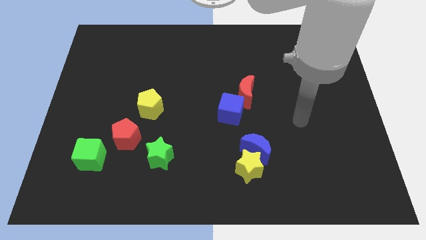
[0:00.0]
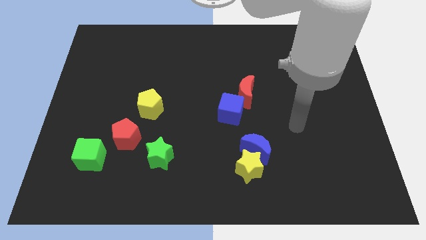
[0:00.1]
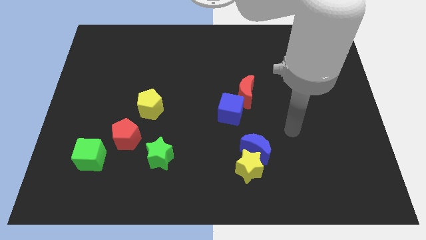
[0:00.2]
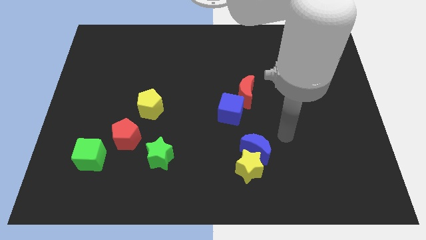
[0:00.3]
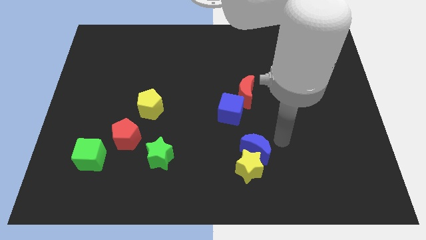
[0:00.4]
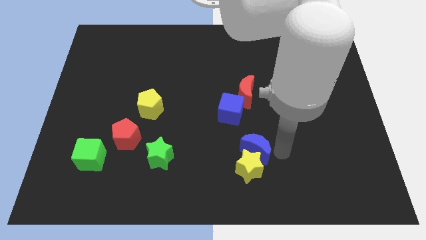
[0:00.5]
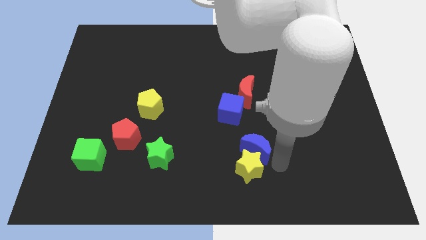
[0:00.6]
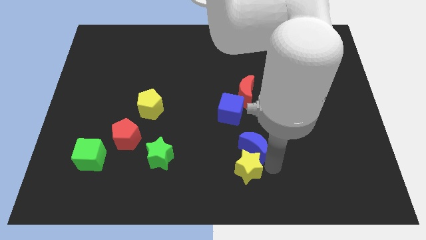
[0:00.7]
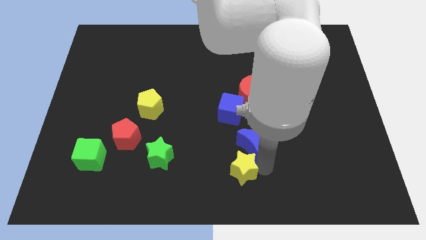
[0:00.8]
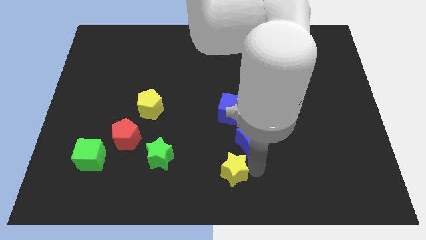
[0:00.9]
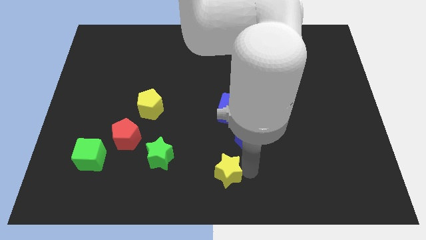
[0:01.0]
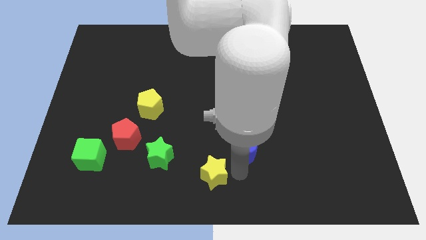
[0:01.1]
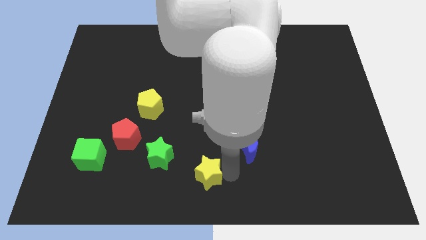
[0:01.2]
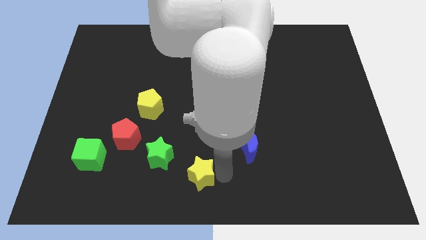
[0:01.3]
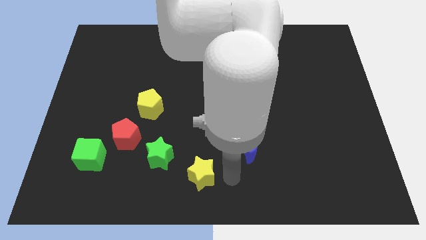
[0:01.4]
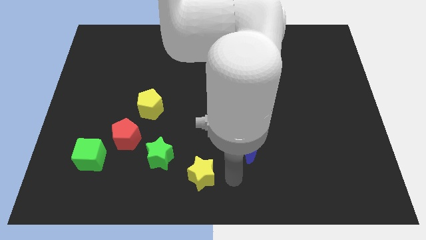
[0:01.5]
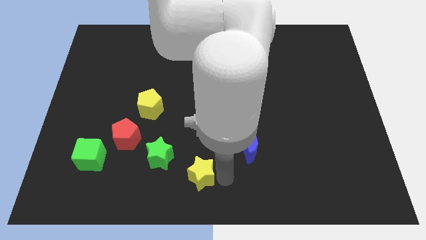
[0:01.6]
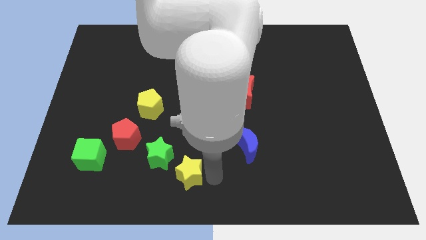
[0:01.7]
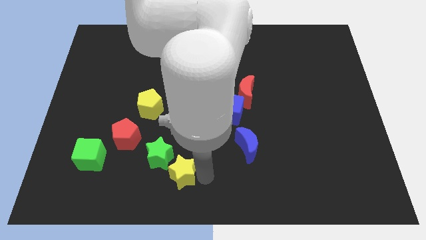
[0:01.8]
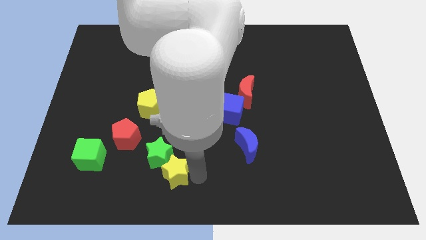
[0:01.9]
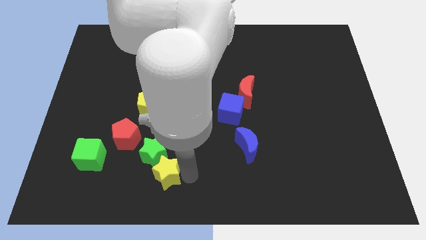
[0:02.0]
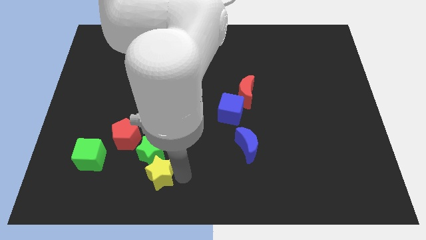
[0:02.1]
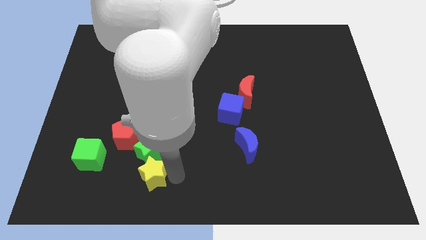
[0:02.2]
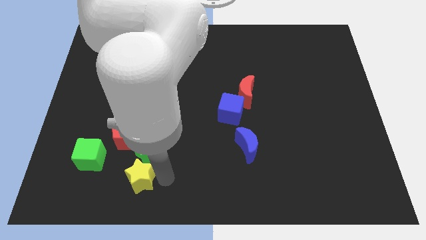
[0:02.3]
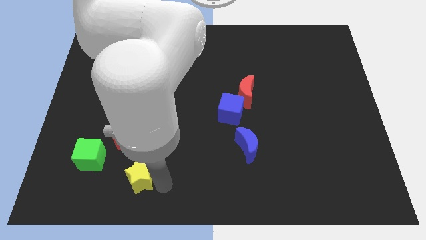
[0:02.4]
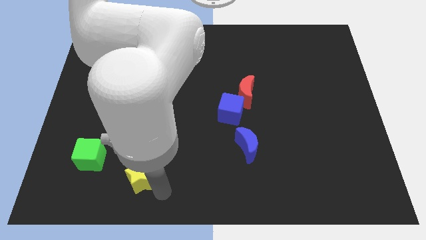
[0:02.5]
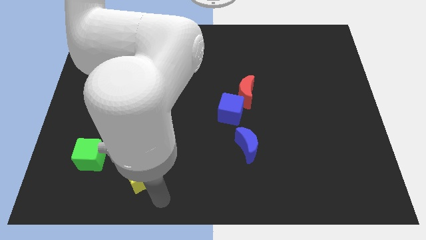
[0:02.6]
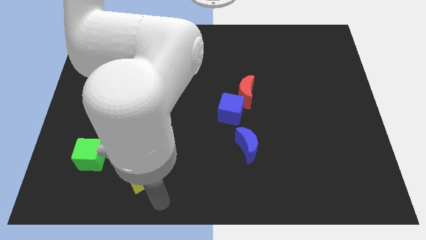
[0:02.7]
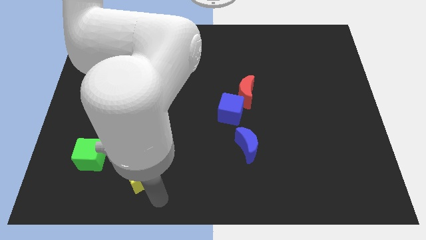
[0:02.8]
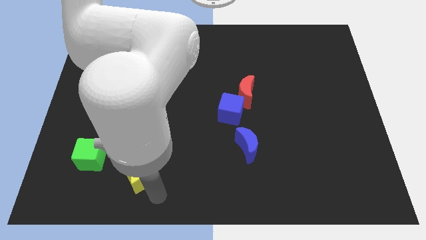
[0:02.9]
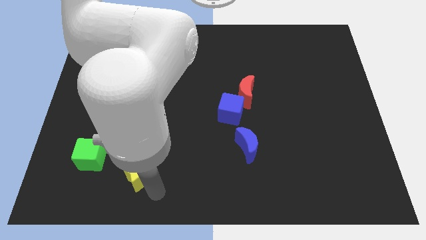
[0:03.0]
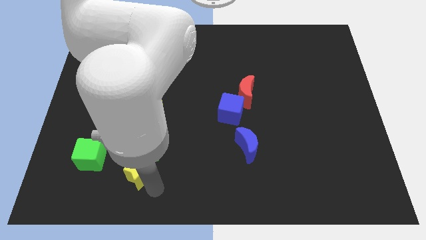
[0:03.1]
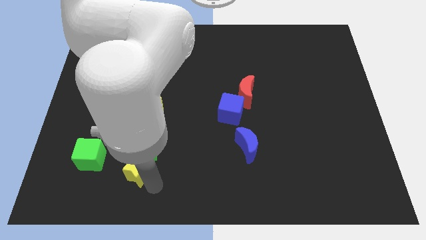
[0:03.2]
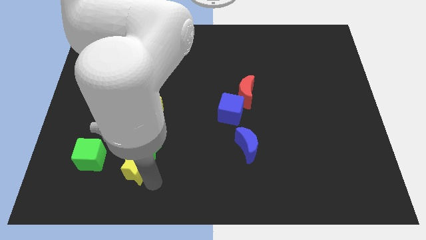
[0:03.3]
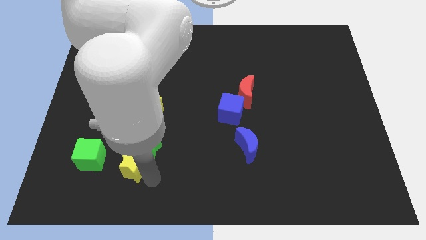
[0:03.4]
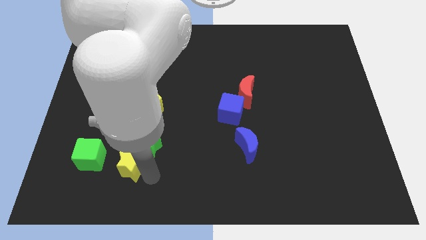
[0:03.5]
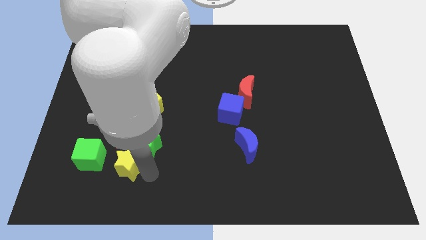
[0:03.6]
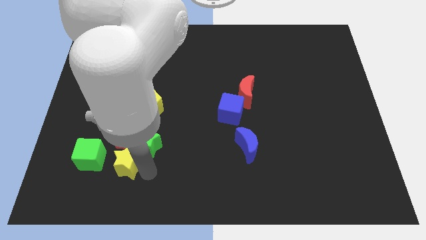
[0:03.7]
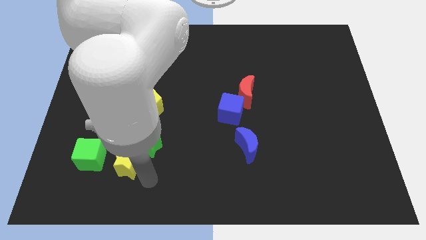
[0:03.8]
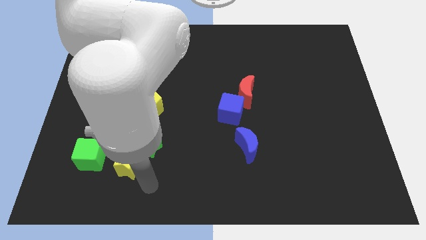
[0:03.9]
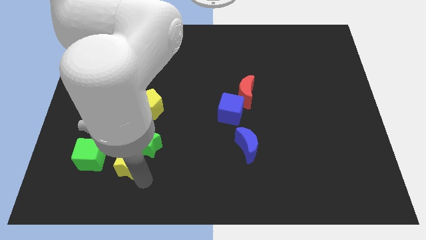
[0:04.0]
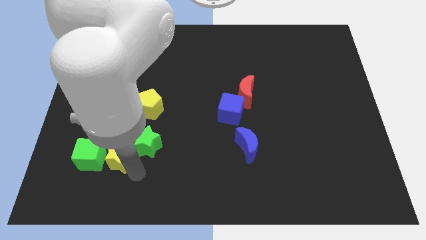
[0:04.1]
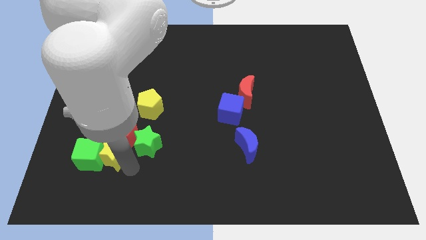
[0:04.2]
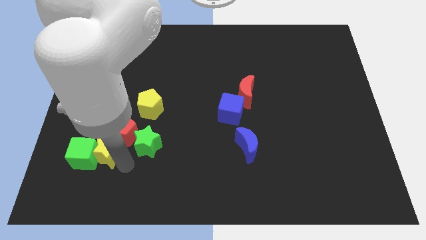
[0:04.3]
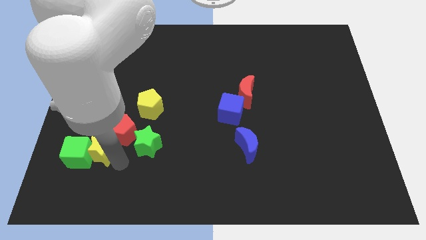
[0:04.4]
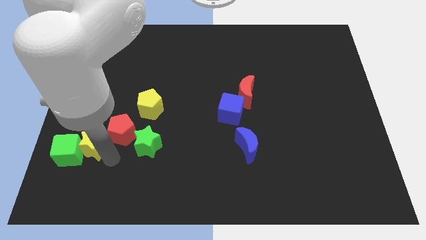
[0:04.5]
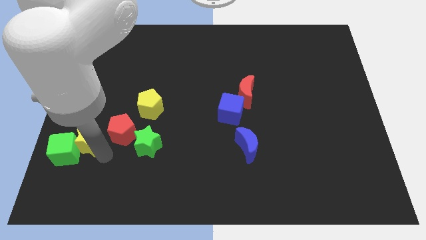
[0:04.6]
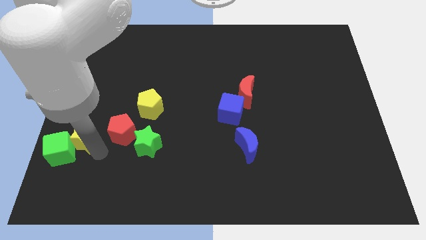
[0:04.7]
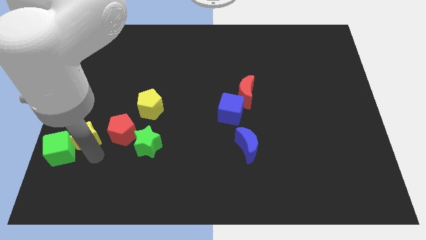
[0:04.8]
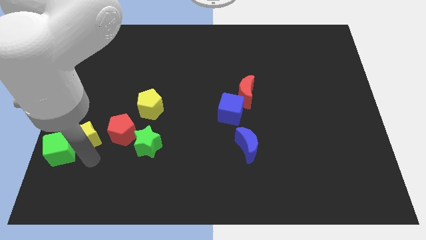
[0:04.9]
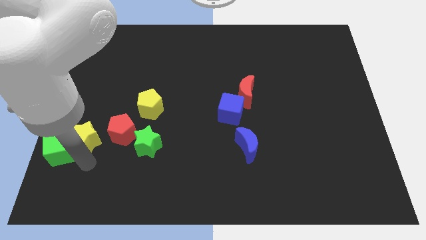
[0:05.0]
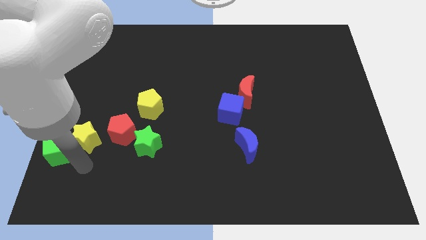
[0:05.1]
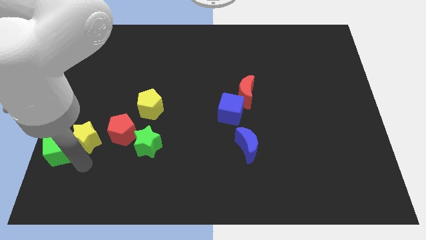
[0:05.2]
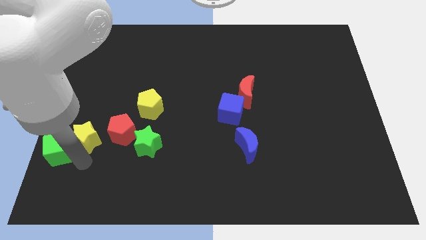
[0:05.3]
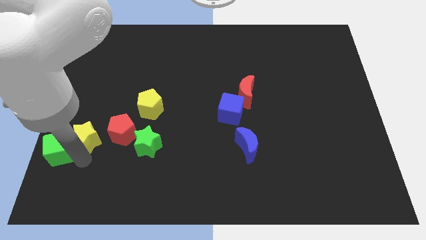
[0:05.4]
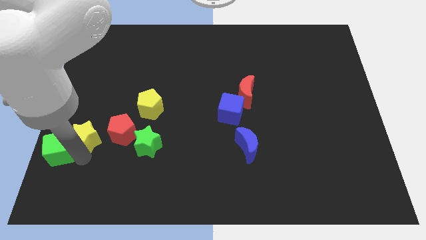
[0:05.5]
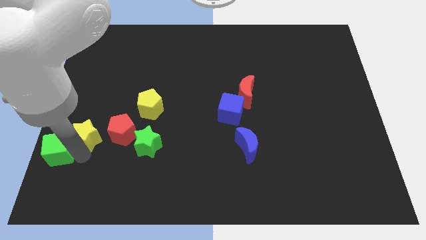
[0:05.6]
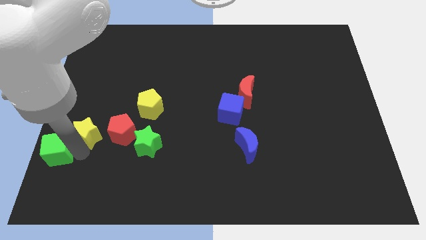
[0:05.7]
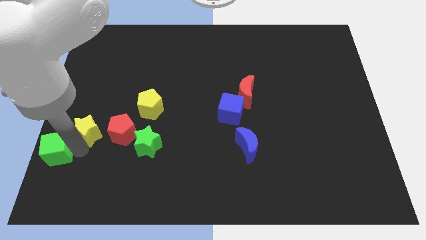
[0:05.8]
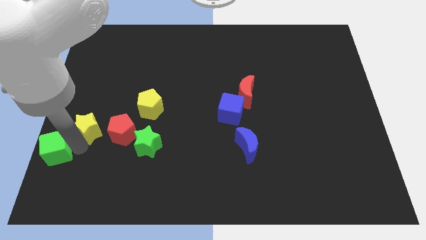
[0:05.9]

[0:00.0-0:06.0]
move the yellow star to the left side

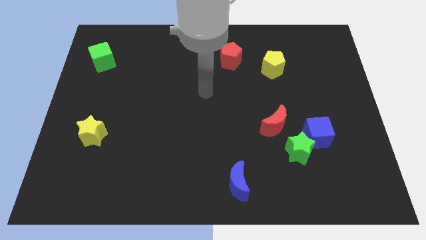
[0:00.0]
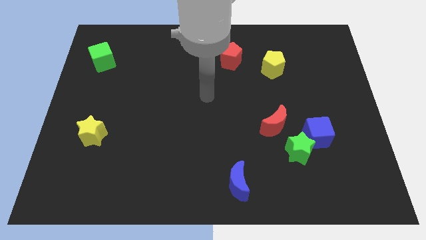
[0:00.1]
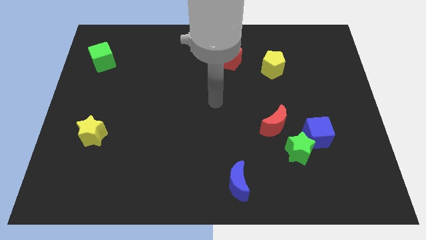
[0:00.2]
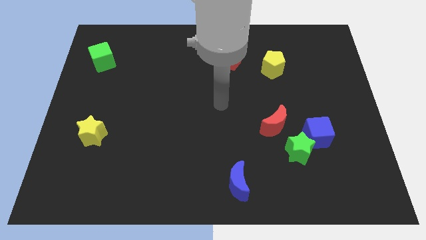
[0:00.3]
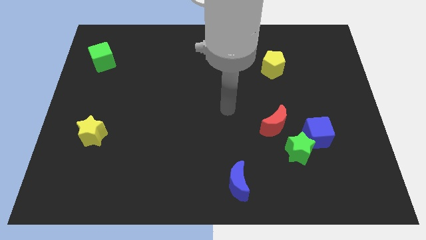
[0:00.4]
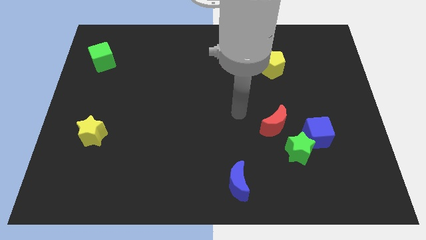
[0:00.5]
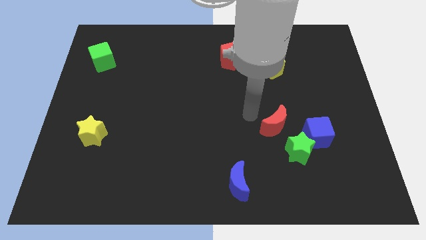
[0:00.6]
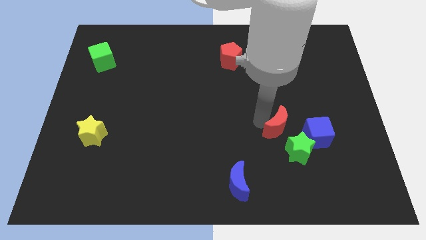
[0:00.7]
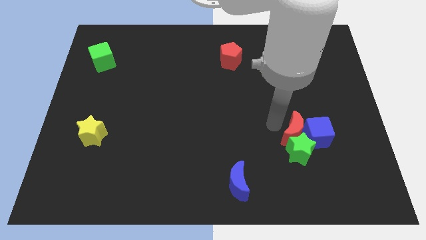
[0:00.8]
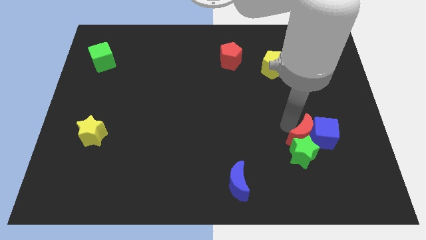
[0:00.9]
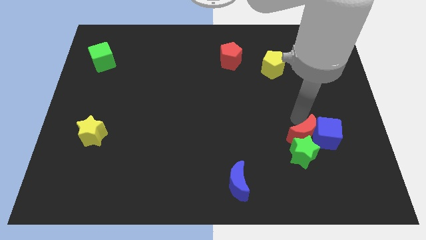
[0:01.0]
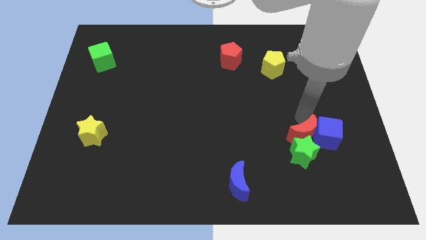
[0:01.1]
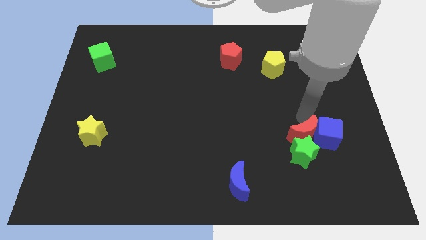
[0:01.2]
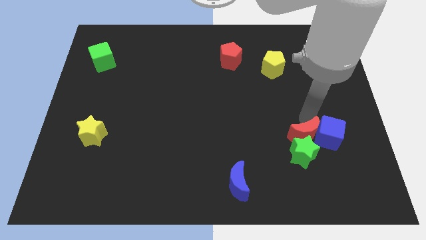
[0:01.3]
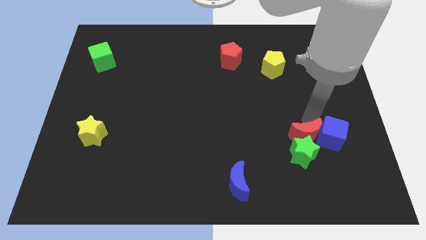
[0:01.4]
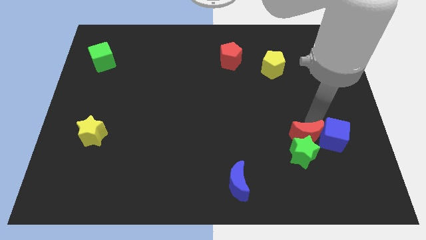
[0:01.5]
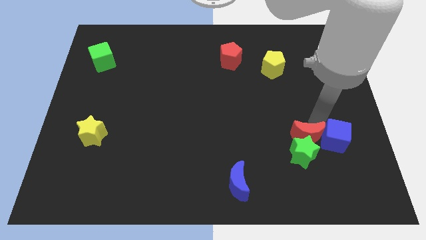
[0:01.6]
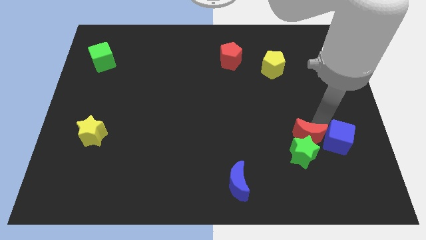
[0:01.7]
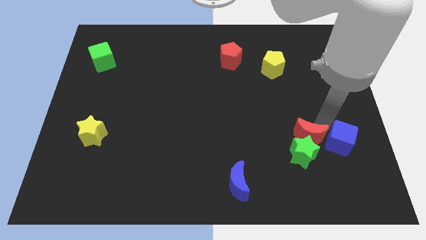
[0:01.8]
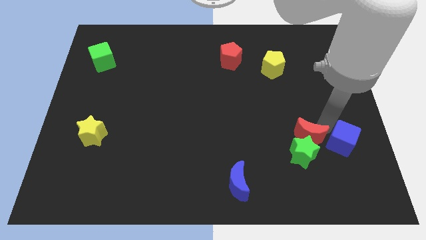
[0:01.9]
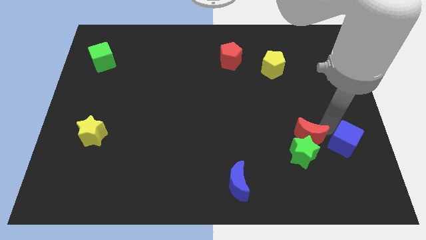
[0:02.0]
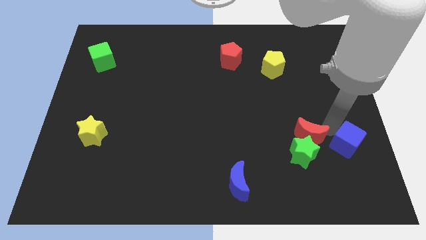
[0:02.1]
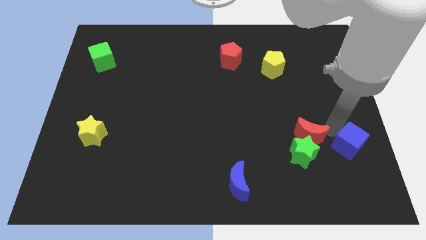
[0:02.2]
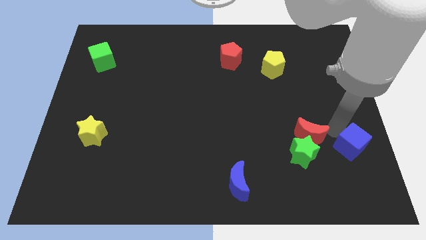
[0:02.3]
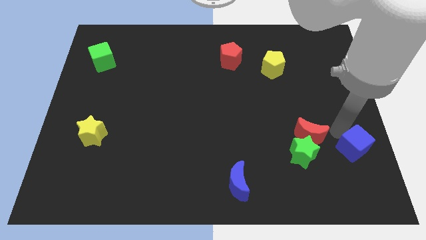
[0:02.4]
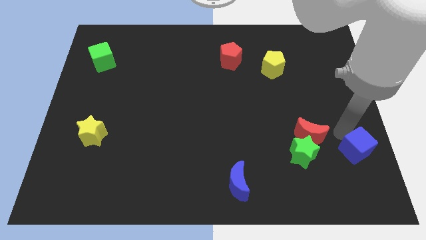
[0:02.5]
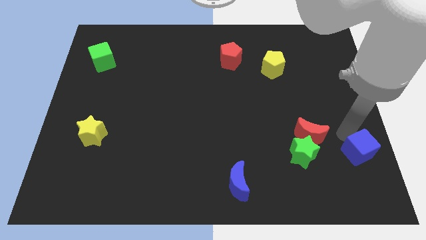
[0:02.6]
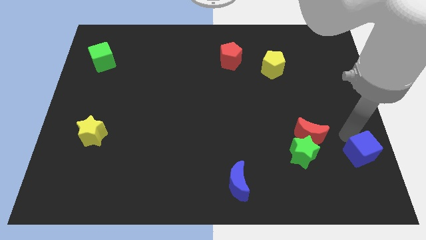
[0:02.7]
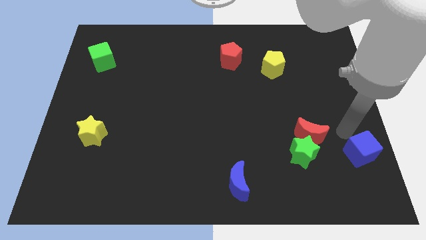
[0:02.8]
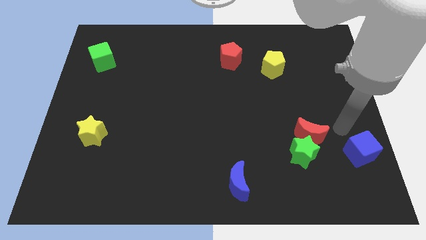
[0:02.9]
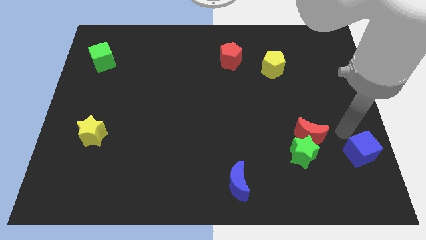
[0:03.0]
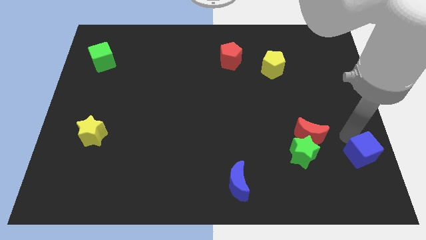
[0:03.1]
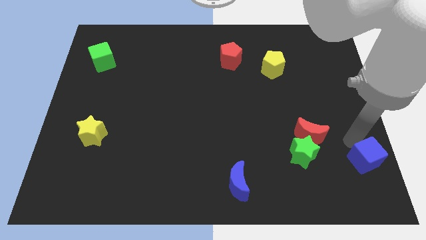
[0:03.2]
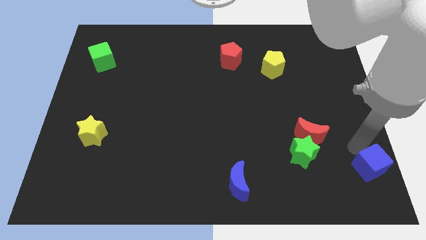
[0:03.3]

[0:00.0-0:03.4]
push the blue cube to the lower right corner
